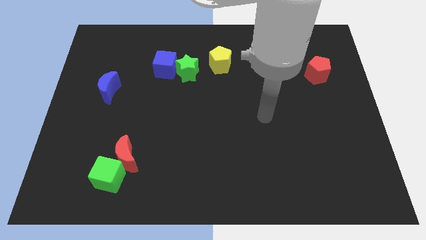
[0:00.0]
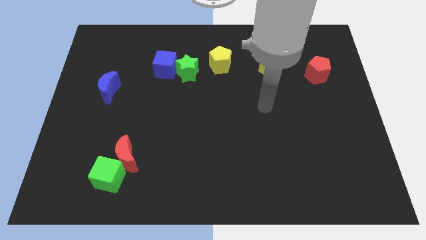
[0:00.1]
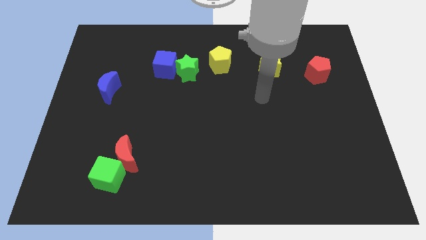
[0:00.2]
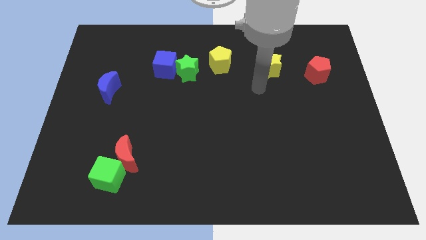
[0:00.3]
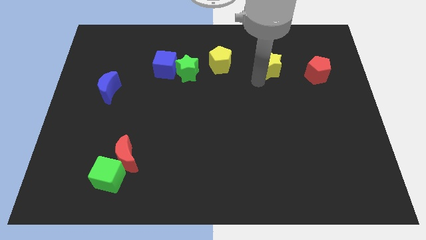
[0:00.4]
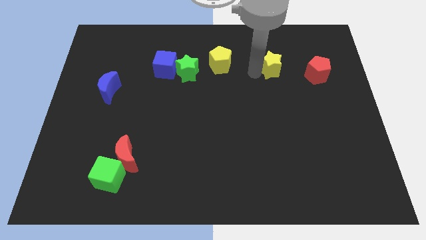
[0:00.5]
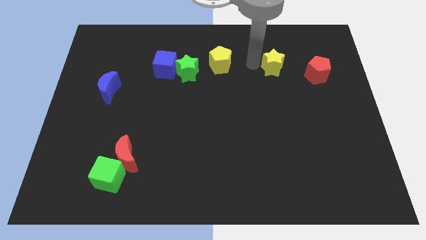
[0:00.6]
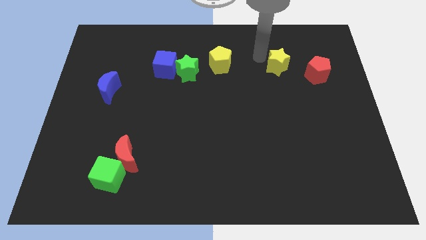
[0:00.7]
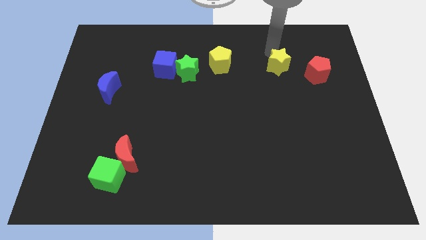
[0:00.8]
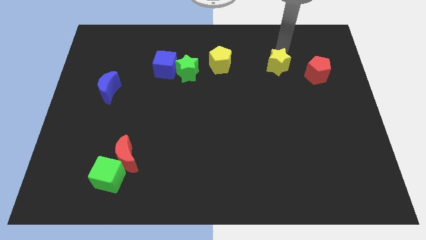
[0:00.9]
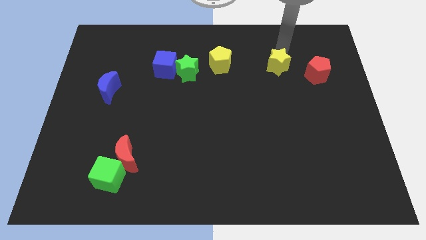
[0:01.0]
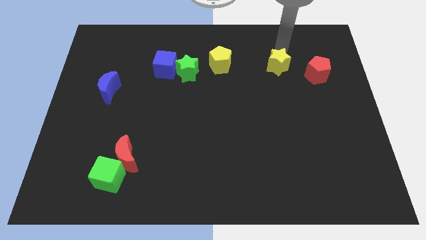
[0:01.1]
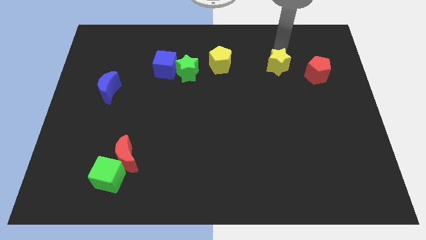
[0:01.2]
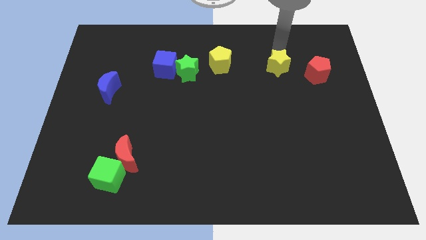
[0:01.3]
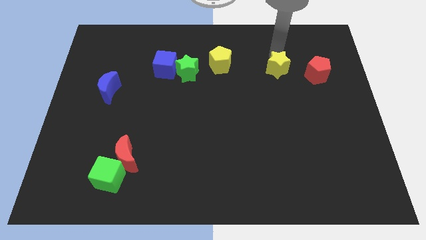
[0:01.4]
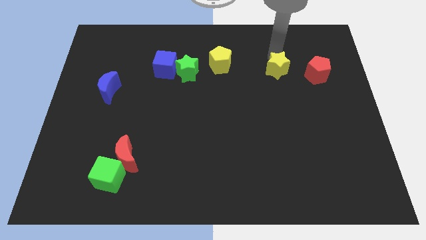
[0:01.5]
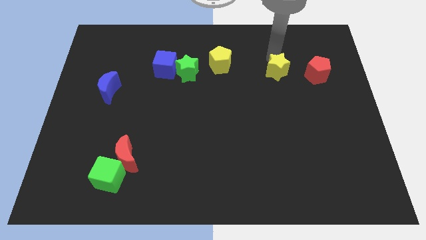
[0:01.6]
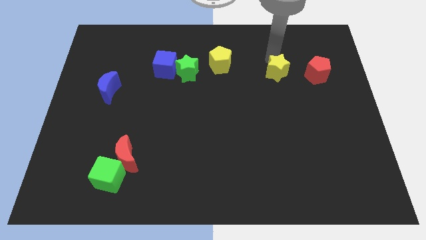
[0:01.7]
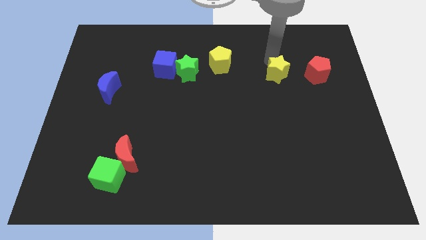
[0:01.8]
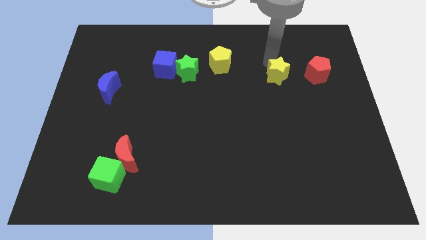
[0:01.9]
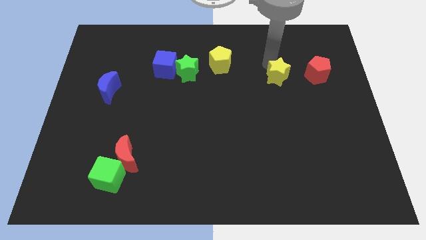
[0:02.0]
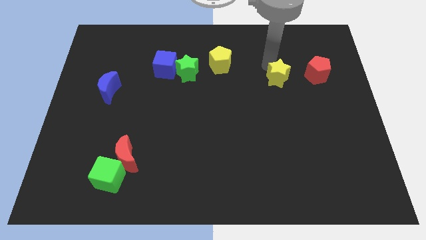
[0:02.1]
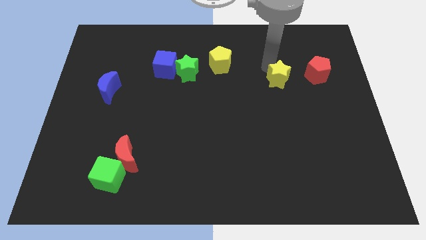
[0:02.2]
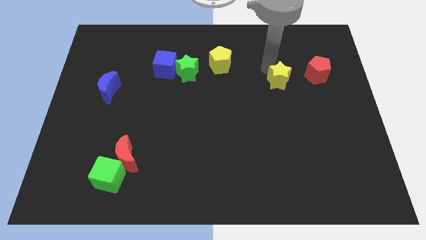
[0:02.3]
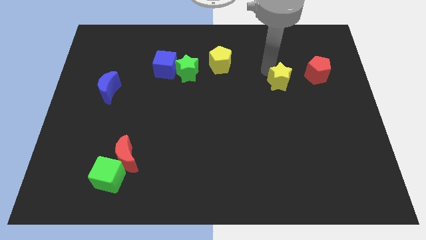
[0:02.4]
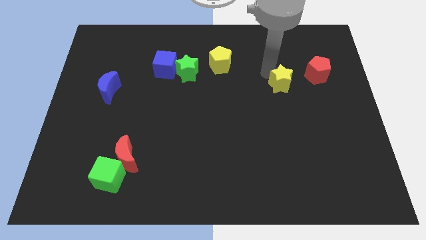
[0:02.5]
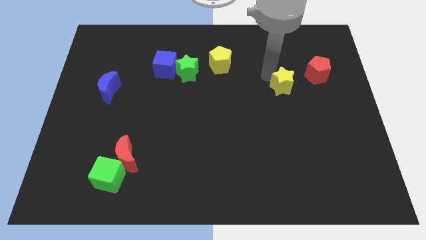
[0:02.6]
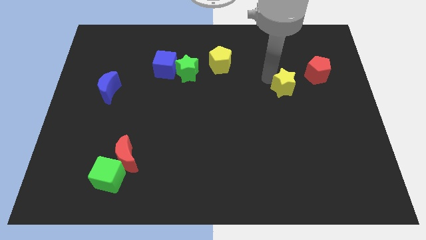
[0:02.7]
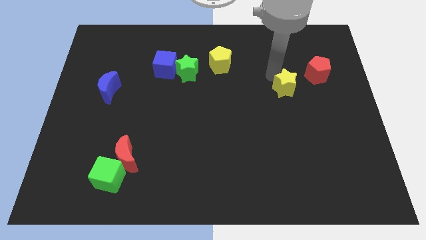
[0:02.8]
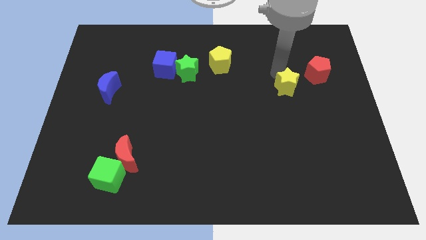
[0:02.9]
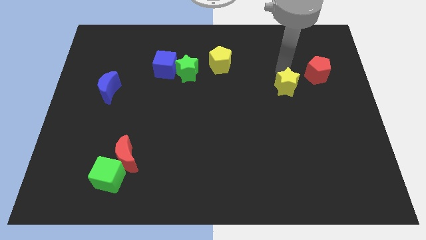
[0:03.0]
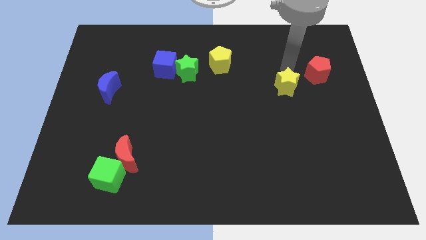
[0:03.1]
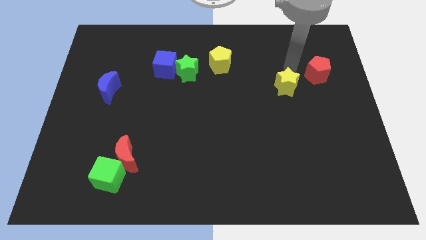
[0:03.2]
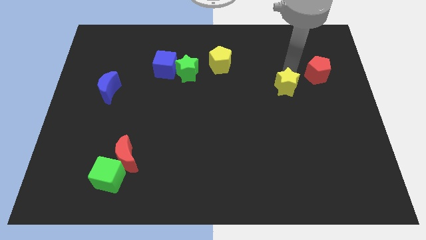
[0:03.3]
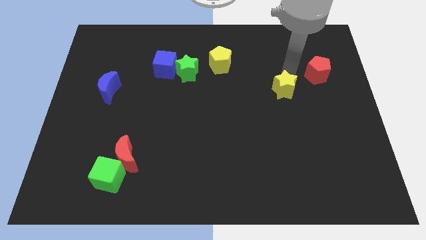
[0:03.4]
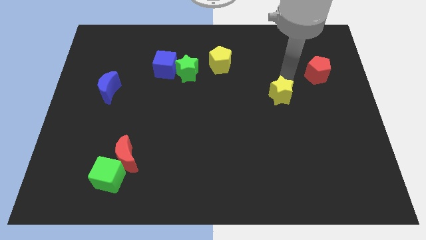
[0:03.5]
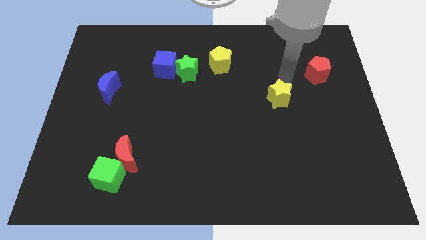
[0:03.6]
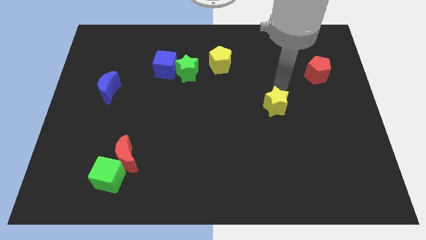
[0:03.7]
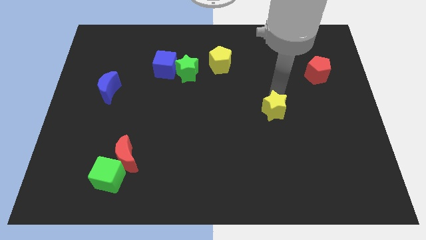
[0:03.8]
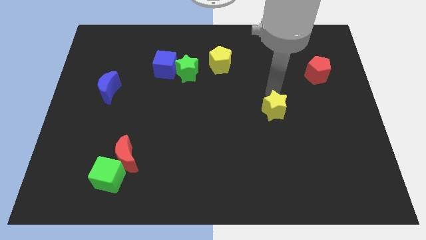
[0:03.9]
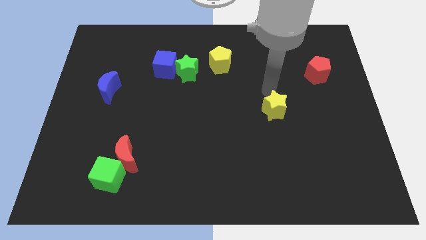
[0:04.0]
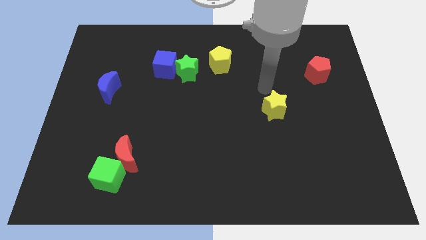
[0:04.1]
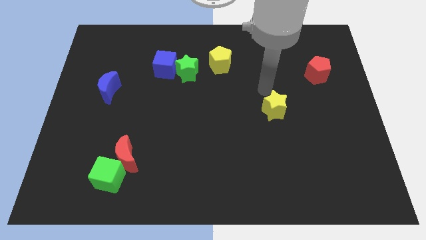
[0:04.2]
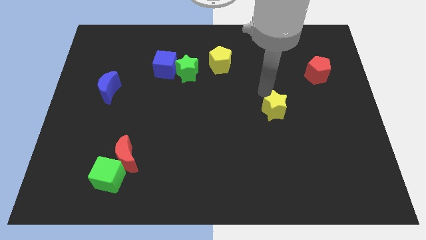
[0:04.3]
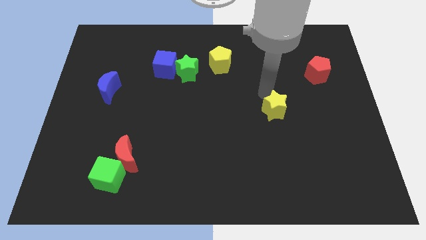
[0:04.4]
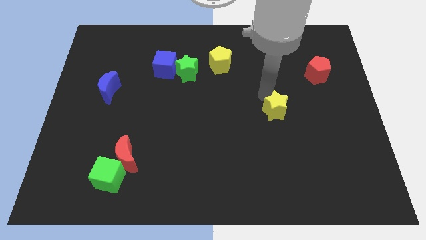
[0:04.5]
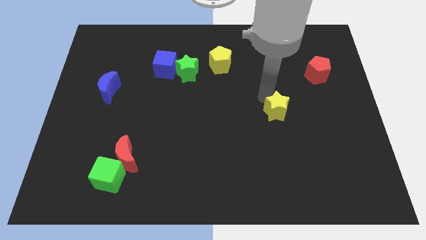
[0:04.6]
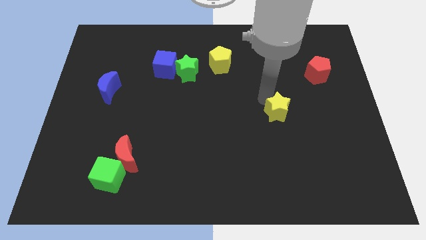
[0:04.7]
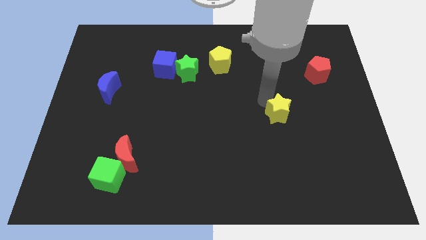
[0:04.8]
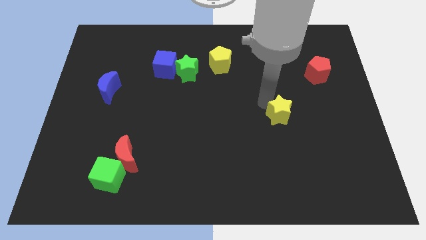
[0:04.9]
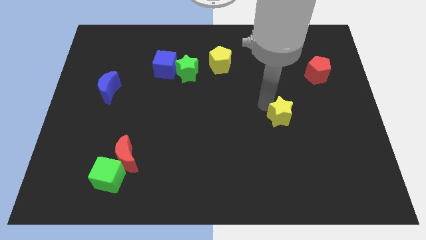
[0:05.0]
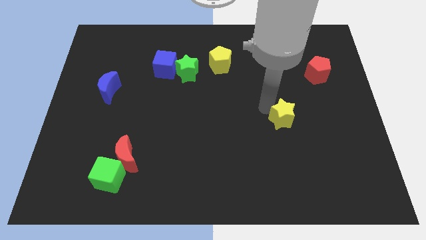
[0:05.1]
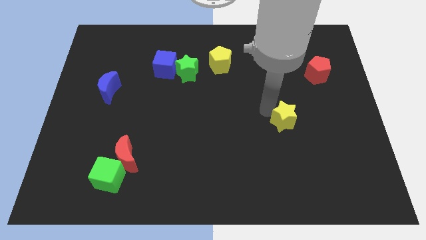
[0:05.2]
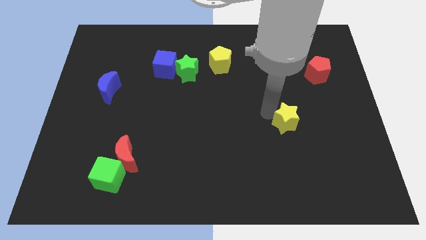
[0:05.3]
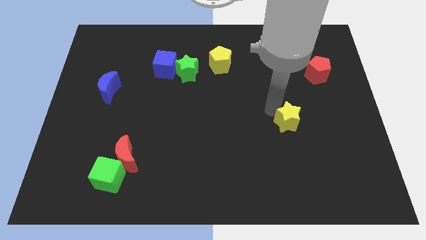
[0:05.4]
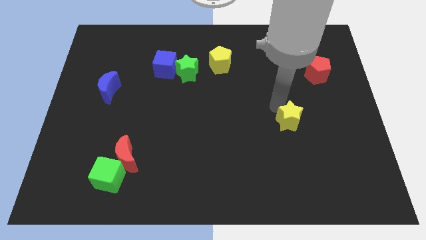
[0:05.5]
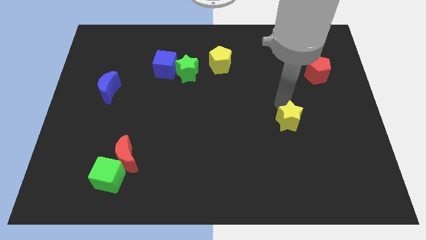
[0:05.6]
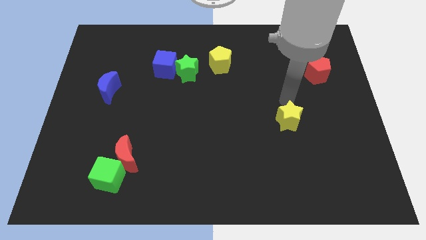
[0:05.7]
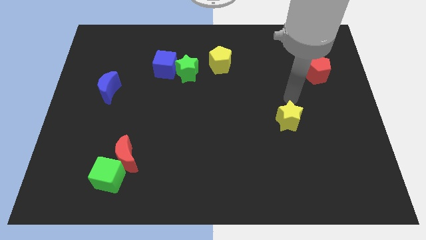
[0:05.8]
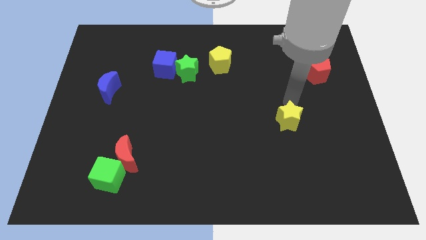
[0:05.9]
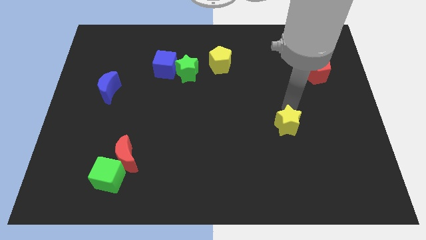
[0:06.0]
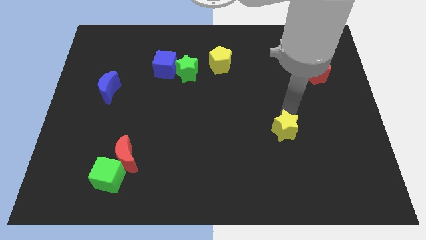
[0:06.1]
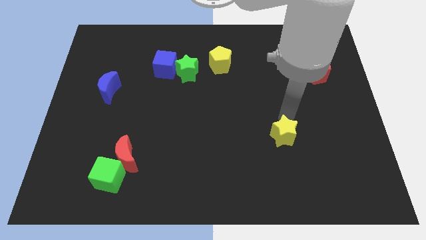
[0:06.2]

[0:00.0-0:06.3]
move the yellow star down

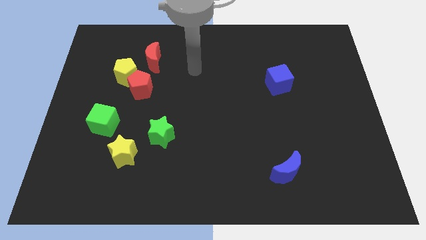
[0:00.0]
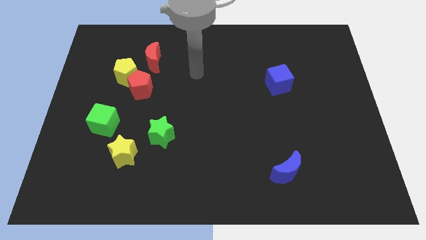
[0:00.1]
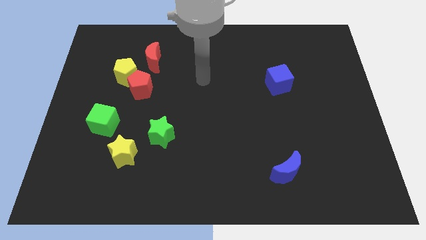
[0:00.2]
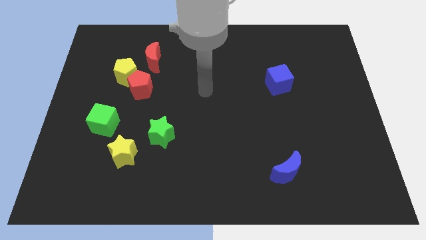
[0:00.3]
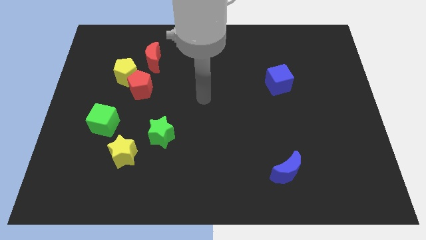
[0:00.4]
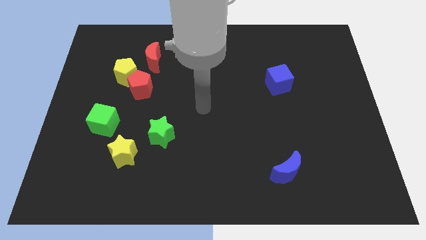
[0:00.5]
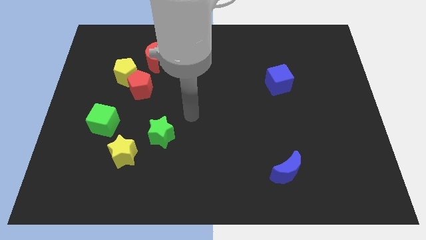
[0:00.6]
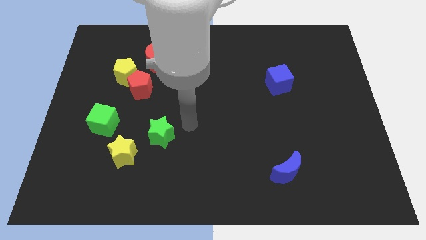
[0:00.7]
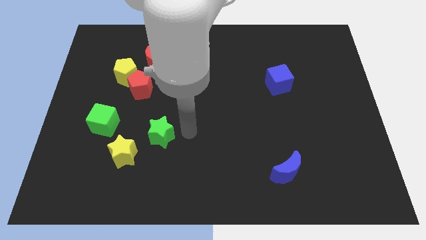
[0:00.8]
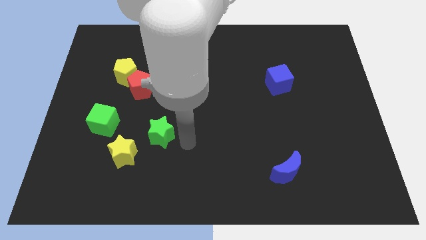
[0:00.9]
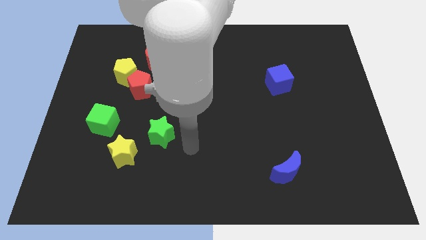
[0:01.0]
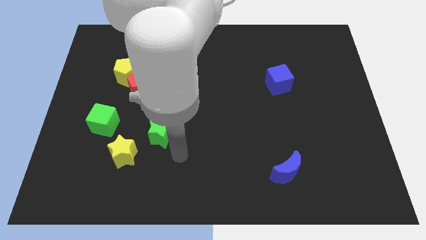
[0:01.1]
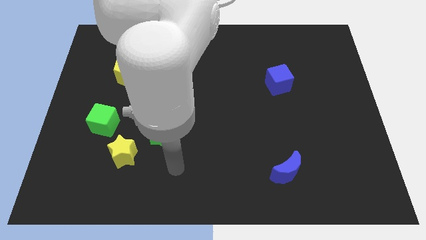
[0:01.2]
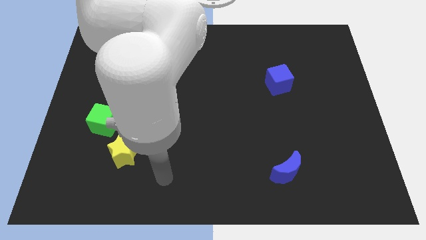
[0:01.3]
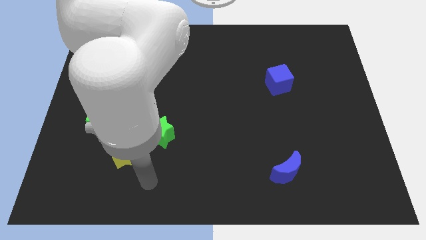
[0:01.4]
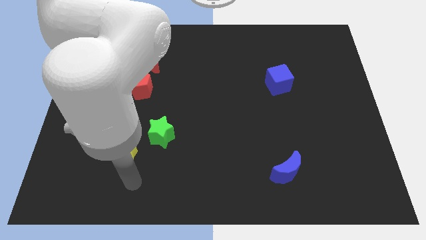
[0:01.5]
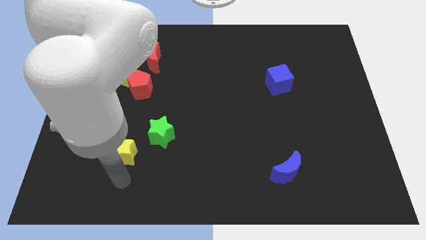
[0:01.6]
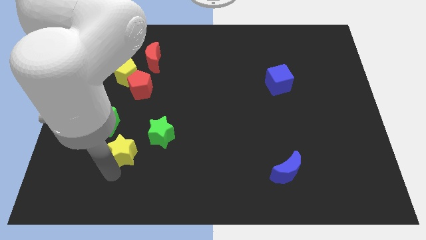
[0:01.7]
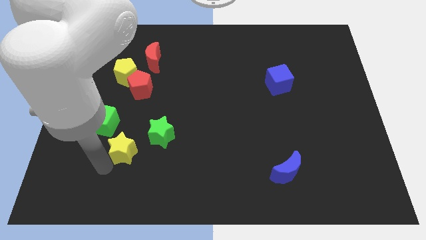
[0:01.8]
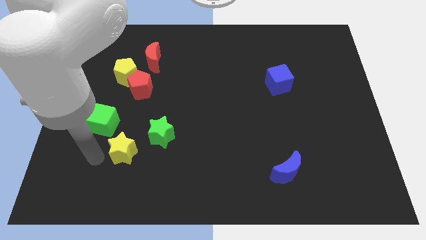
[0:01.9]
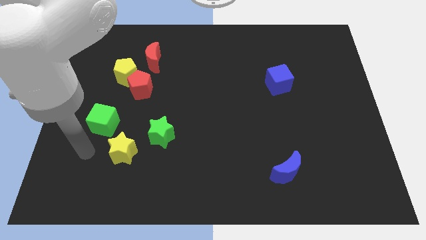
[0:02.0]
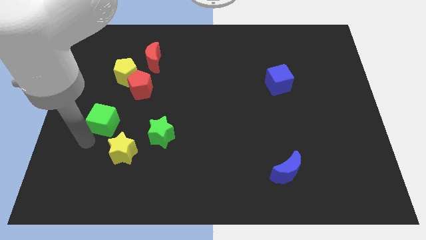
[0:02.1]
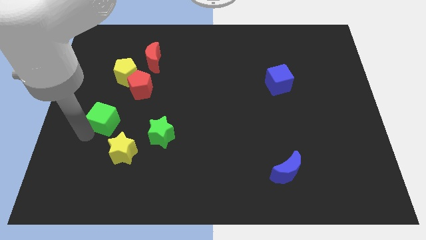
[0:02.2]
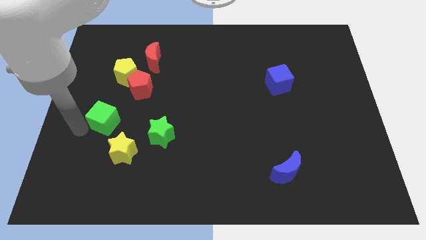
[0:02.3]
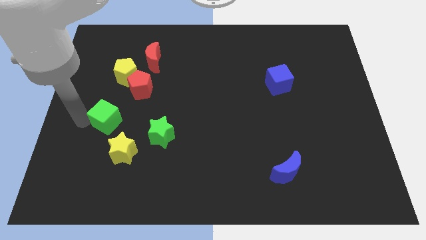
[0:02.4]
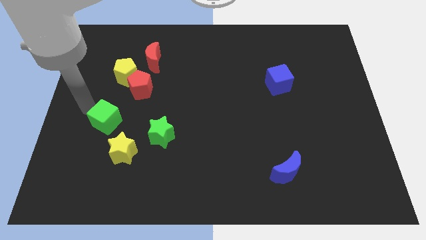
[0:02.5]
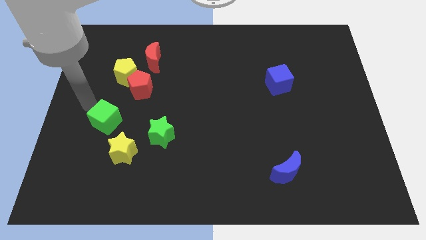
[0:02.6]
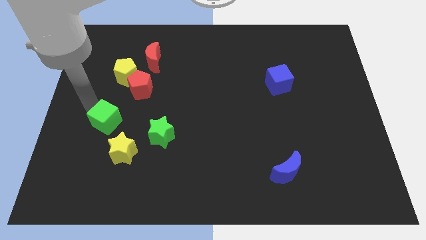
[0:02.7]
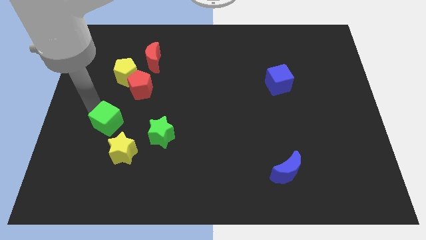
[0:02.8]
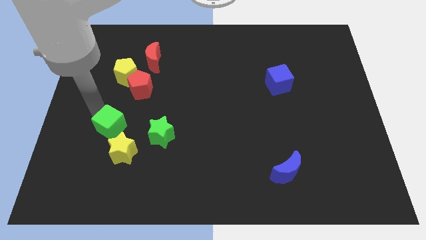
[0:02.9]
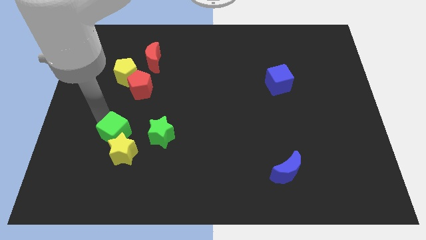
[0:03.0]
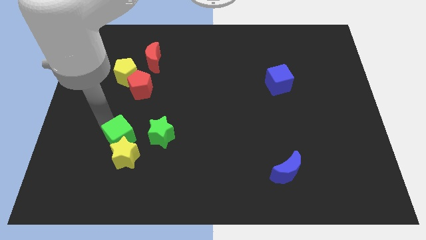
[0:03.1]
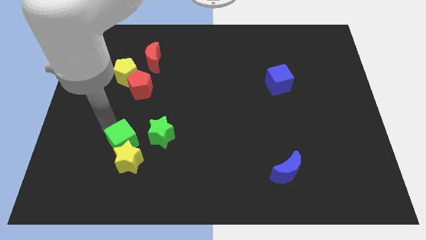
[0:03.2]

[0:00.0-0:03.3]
slide the green cube somewhat down and right diagonally
